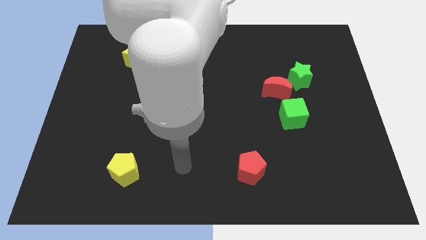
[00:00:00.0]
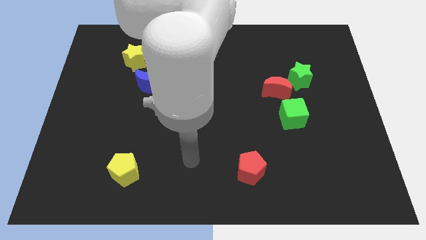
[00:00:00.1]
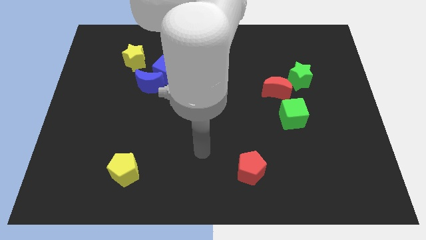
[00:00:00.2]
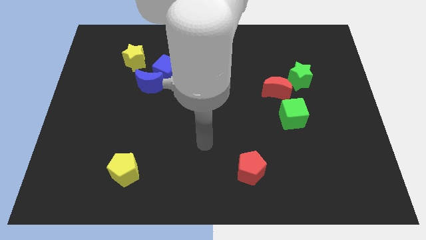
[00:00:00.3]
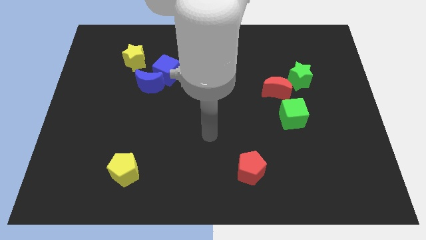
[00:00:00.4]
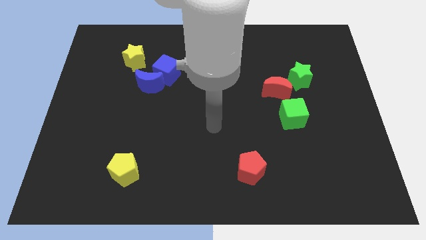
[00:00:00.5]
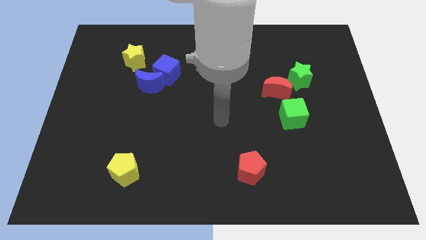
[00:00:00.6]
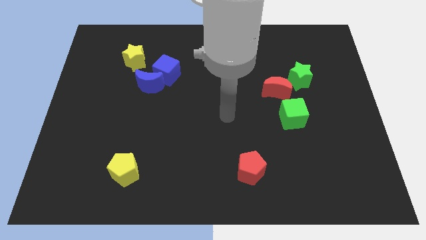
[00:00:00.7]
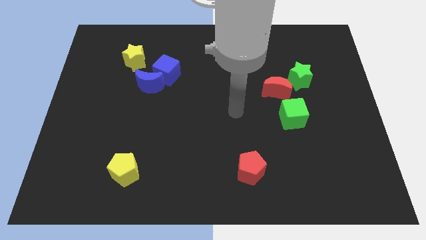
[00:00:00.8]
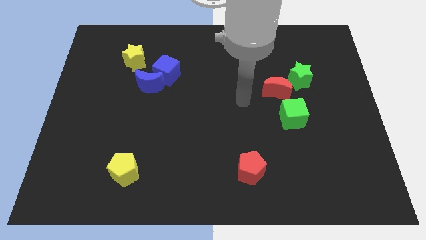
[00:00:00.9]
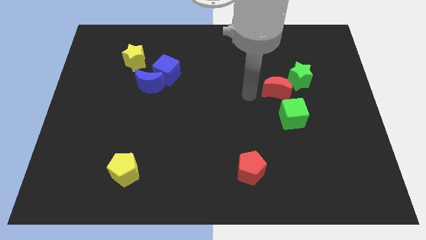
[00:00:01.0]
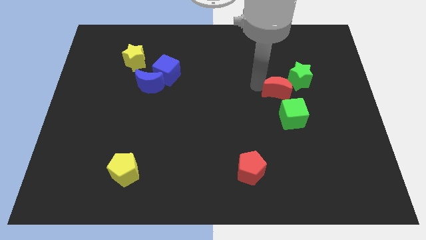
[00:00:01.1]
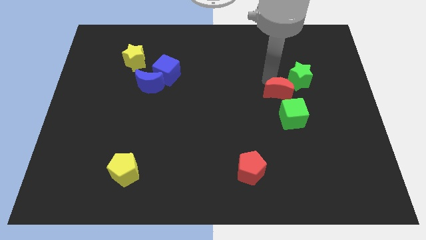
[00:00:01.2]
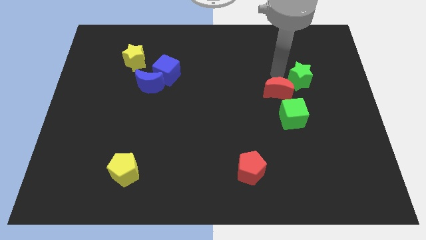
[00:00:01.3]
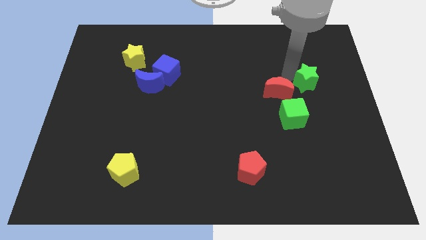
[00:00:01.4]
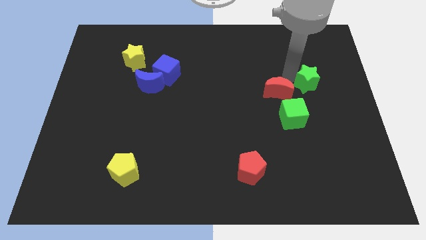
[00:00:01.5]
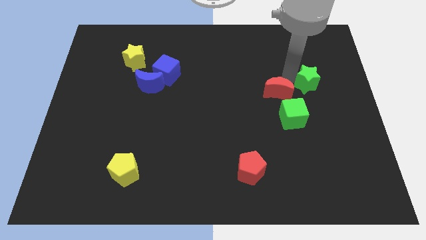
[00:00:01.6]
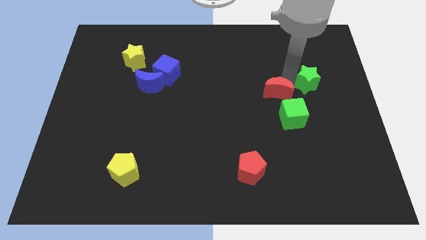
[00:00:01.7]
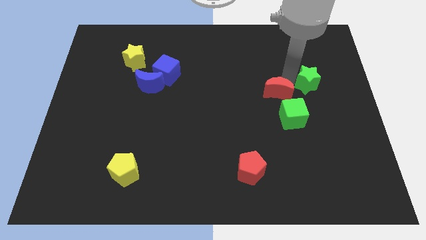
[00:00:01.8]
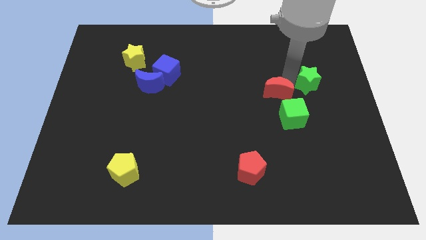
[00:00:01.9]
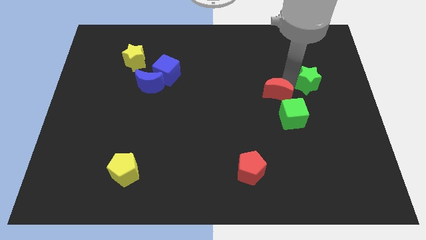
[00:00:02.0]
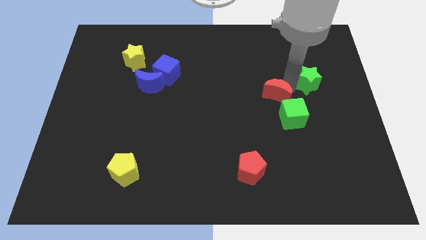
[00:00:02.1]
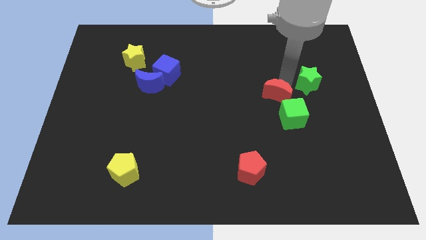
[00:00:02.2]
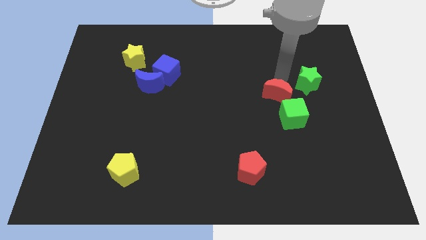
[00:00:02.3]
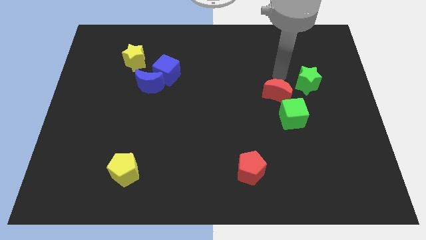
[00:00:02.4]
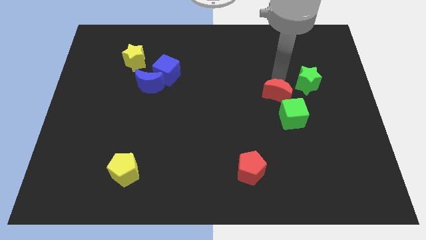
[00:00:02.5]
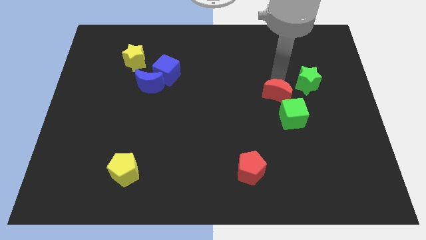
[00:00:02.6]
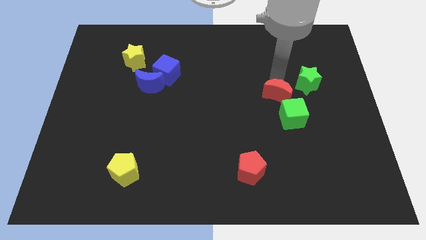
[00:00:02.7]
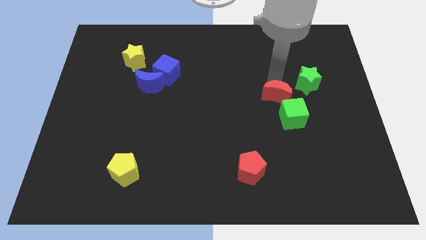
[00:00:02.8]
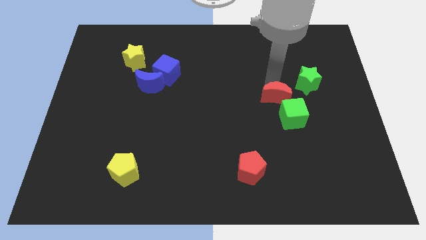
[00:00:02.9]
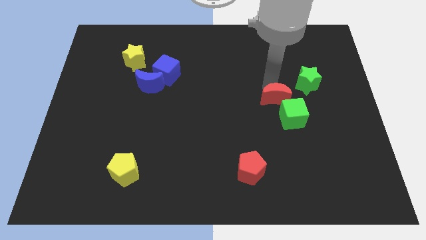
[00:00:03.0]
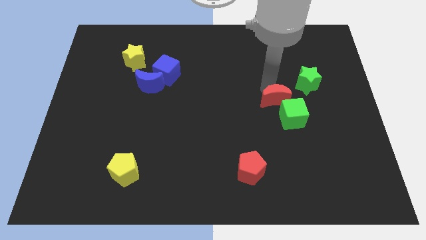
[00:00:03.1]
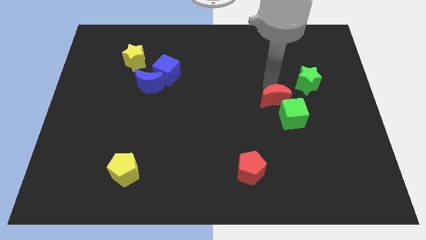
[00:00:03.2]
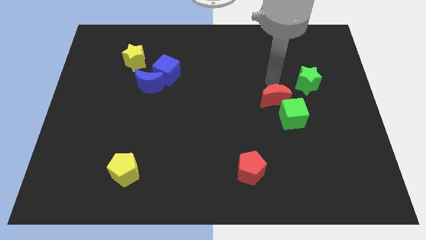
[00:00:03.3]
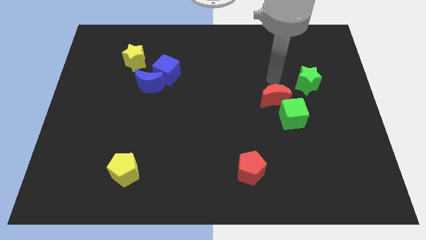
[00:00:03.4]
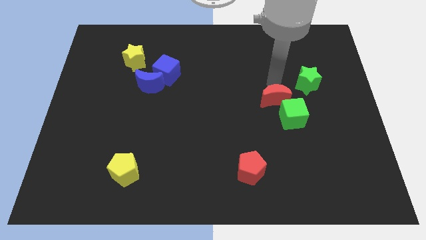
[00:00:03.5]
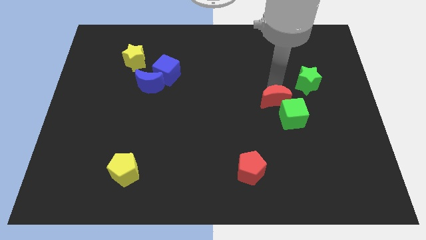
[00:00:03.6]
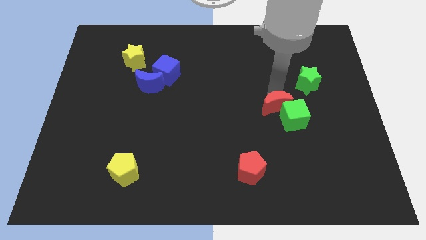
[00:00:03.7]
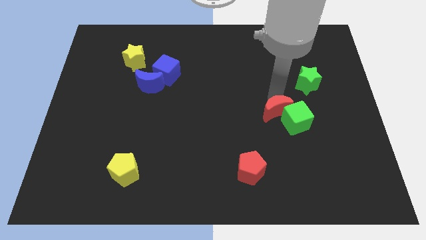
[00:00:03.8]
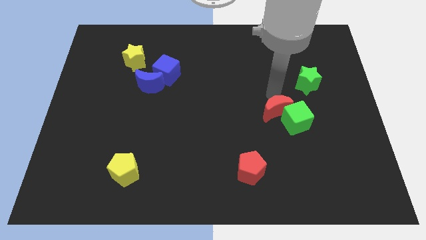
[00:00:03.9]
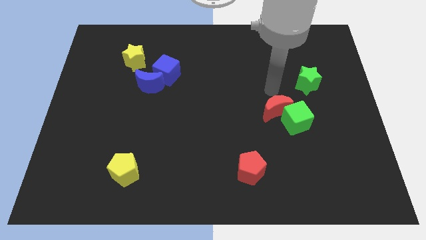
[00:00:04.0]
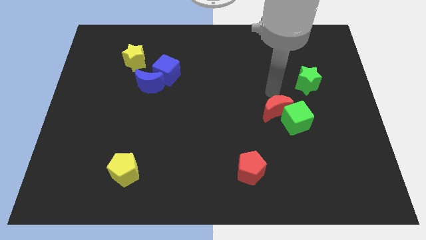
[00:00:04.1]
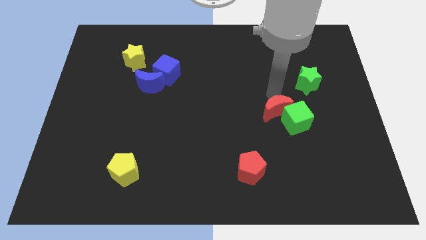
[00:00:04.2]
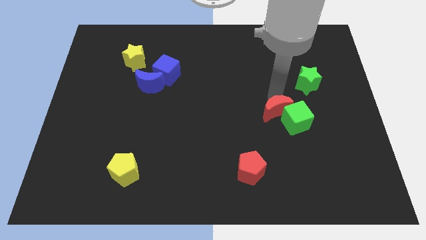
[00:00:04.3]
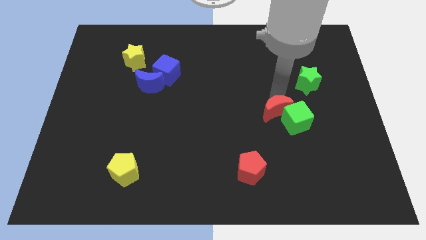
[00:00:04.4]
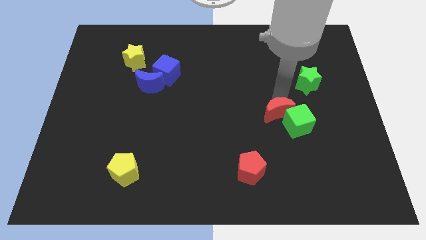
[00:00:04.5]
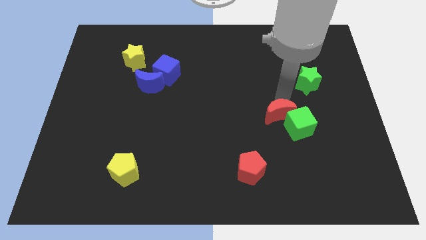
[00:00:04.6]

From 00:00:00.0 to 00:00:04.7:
slide the red moon down somewhat

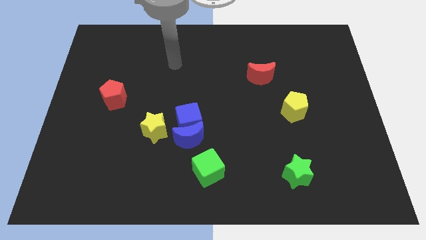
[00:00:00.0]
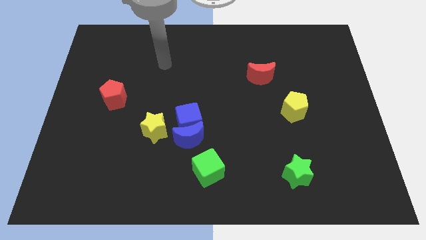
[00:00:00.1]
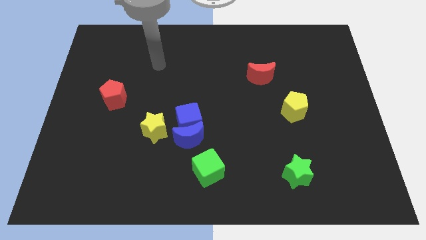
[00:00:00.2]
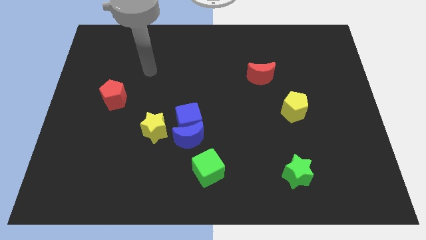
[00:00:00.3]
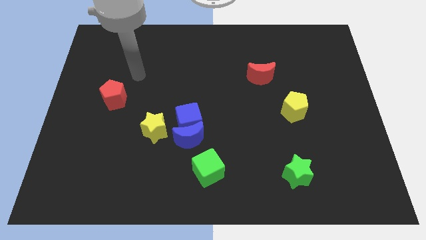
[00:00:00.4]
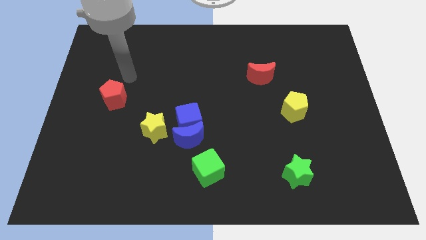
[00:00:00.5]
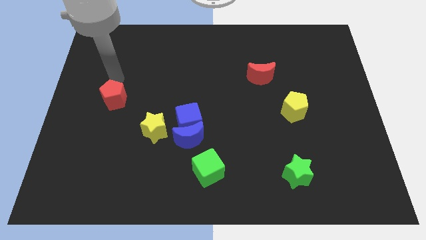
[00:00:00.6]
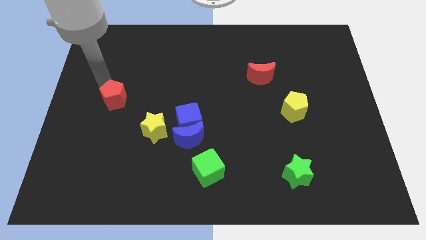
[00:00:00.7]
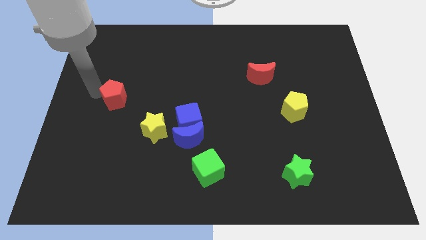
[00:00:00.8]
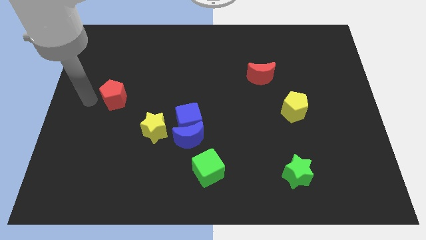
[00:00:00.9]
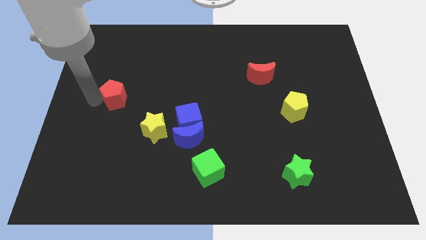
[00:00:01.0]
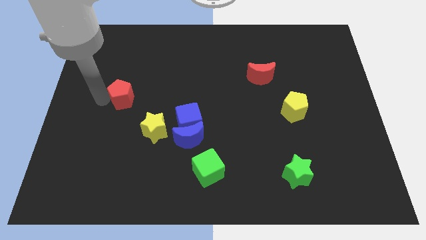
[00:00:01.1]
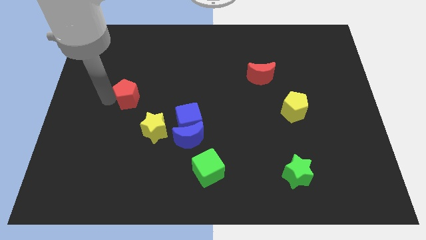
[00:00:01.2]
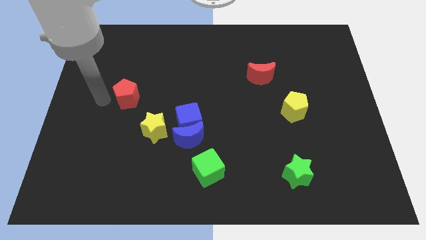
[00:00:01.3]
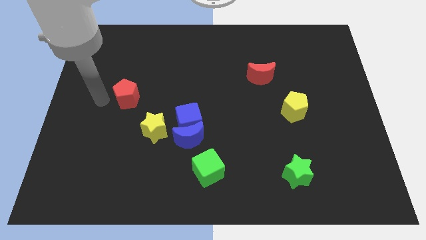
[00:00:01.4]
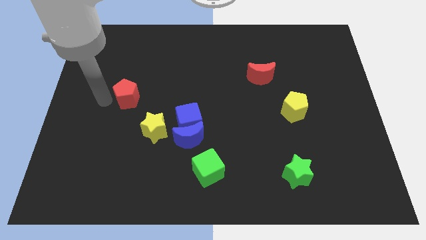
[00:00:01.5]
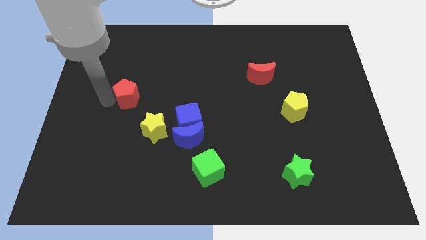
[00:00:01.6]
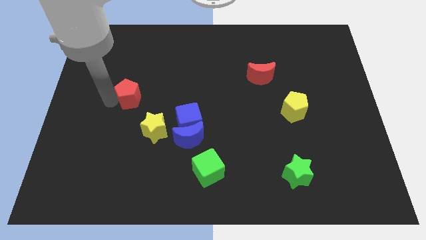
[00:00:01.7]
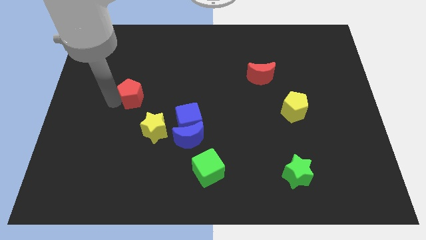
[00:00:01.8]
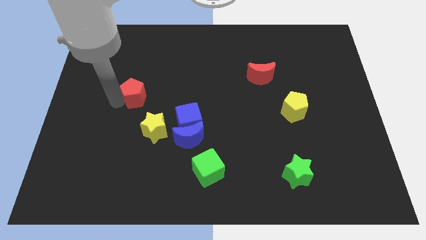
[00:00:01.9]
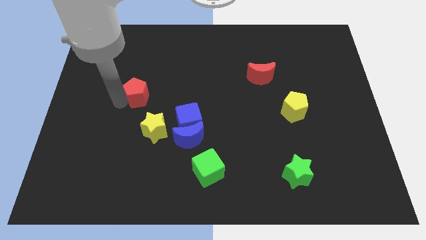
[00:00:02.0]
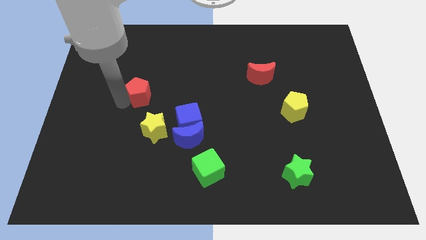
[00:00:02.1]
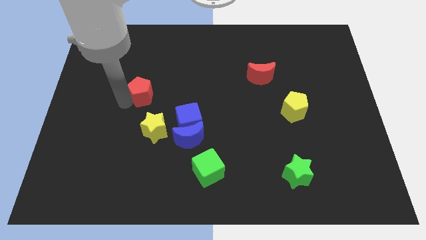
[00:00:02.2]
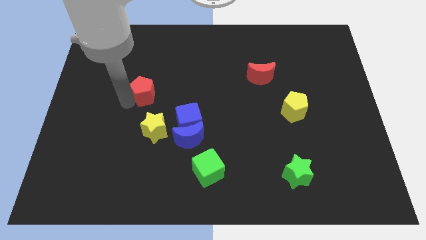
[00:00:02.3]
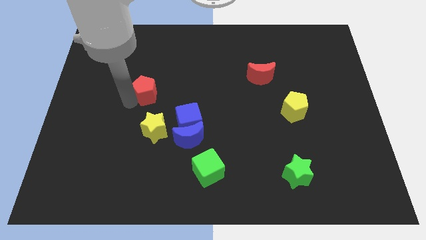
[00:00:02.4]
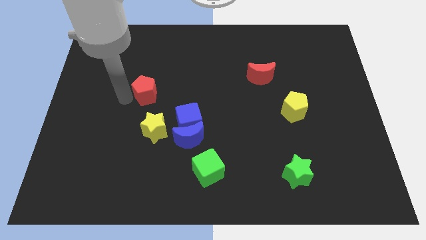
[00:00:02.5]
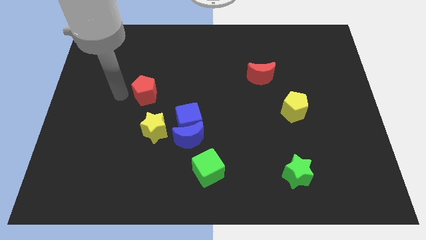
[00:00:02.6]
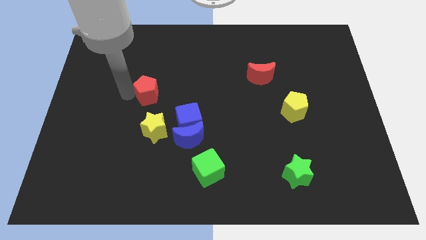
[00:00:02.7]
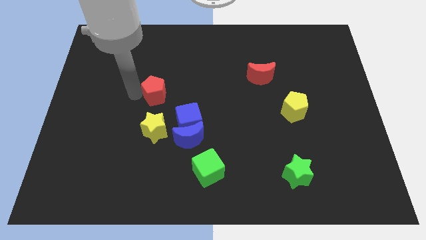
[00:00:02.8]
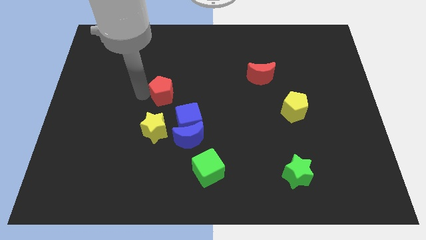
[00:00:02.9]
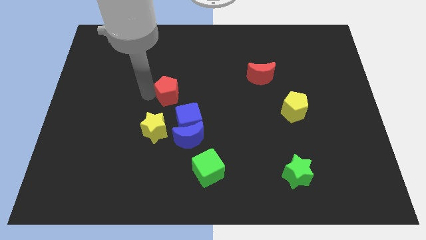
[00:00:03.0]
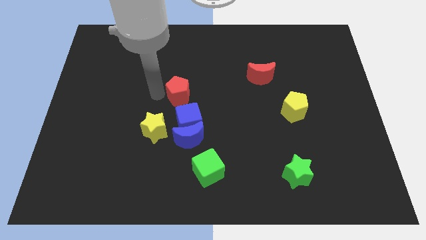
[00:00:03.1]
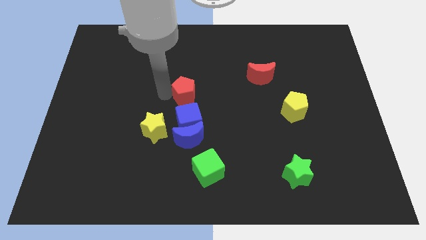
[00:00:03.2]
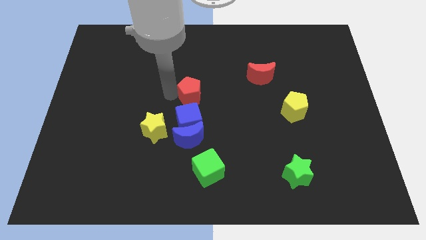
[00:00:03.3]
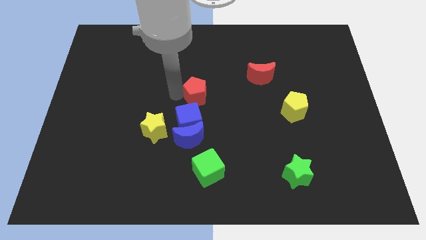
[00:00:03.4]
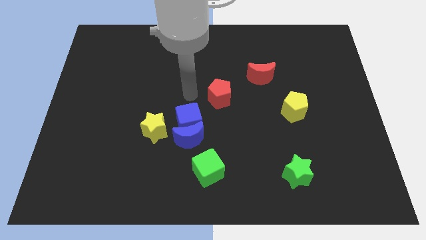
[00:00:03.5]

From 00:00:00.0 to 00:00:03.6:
move the red pentagon right
